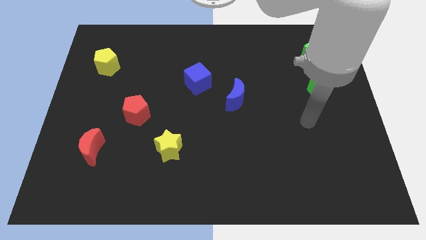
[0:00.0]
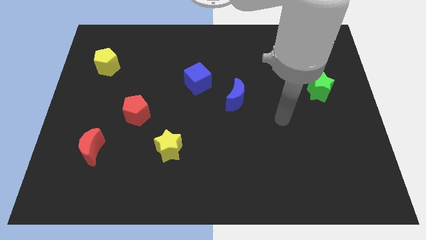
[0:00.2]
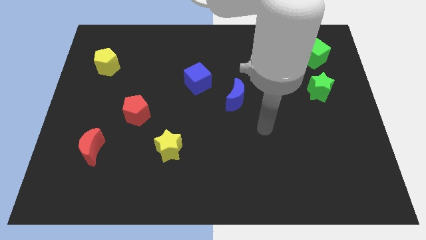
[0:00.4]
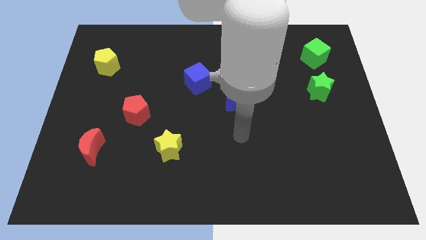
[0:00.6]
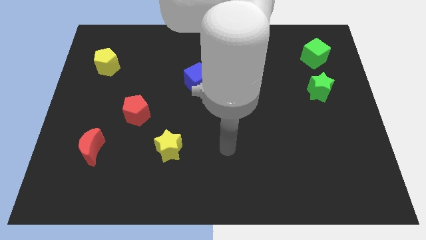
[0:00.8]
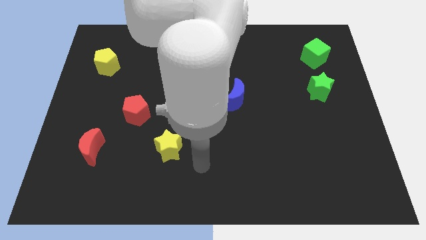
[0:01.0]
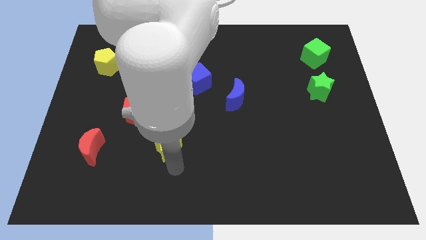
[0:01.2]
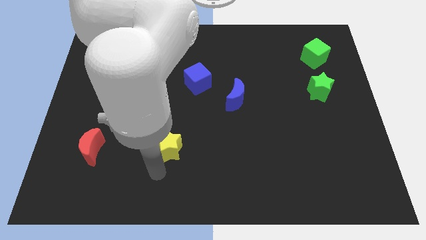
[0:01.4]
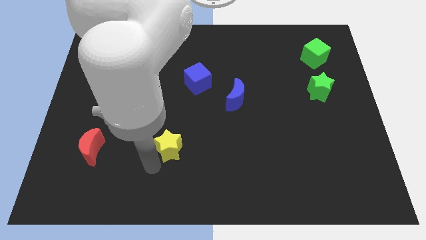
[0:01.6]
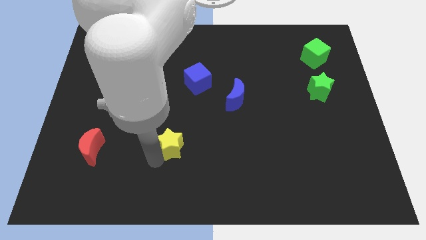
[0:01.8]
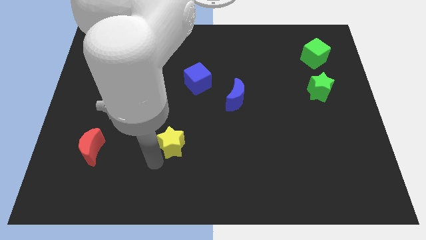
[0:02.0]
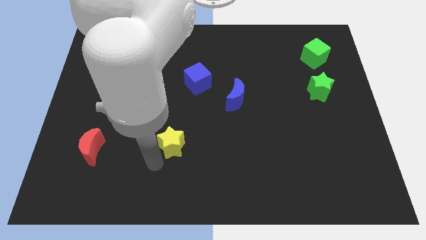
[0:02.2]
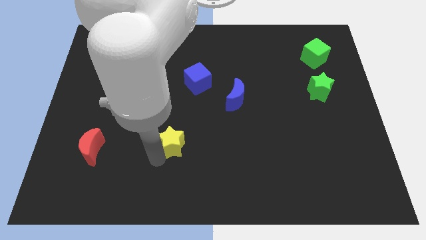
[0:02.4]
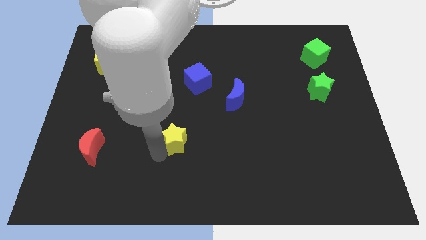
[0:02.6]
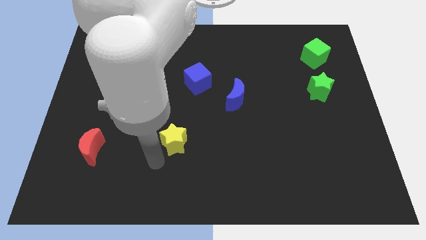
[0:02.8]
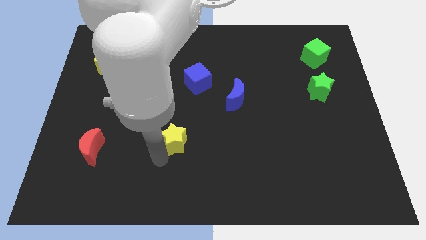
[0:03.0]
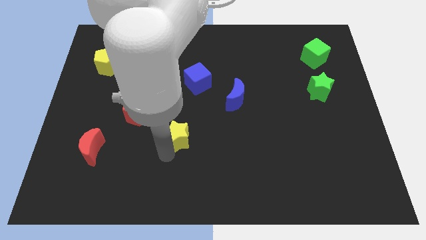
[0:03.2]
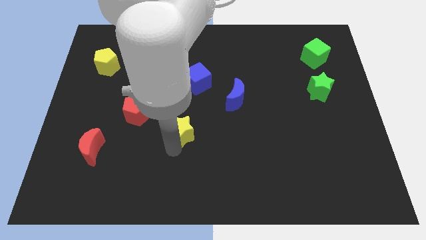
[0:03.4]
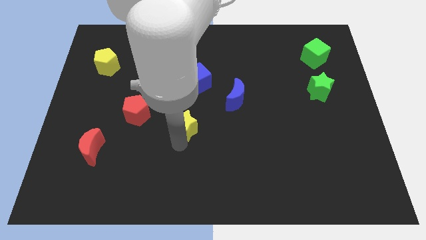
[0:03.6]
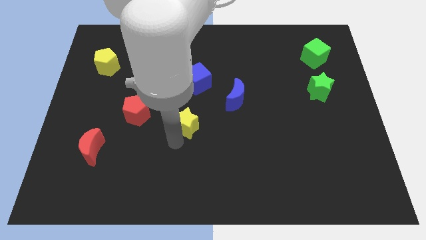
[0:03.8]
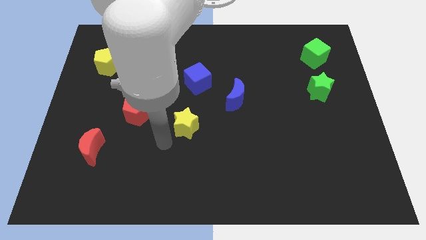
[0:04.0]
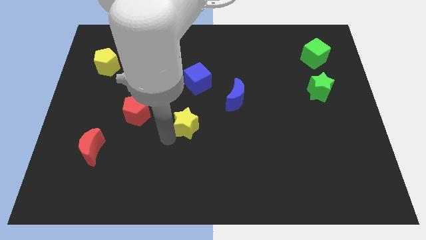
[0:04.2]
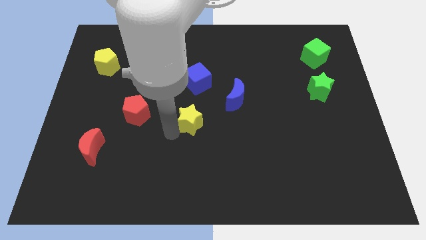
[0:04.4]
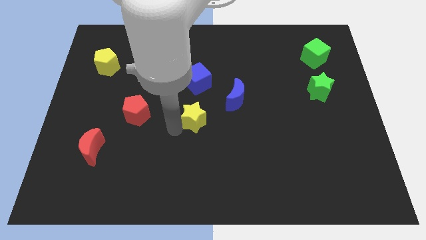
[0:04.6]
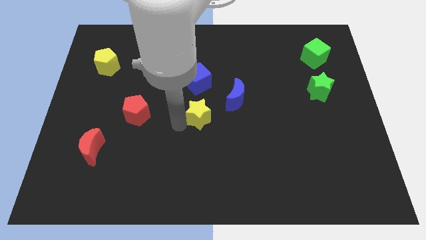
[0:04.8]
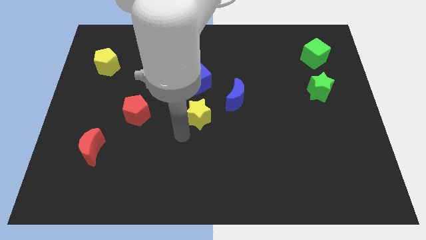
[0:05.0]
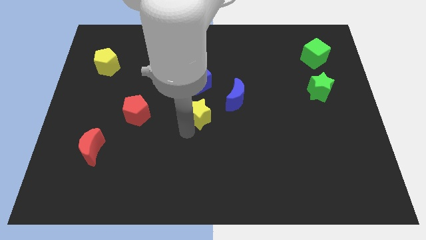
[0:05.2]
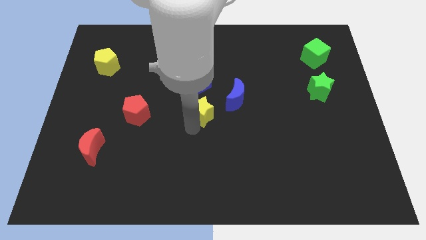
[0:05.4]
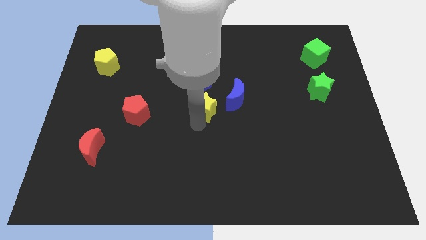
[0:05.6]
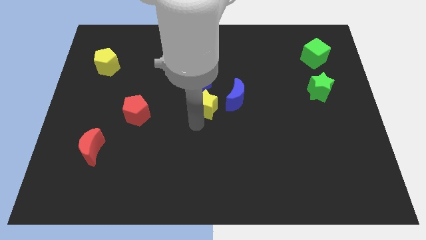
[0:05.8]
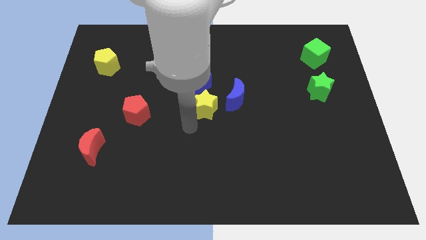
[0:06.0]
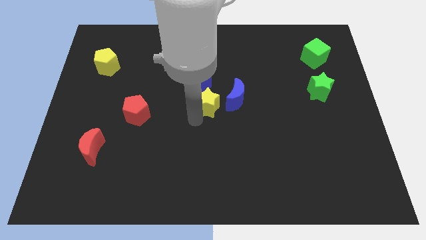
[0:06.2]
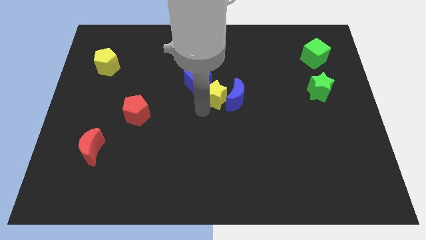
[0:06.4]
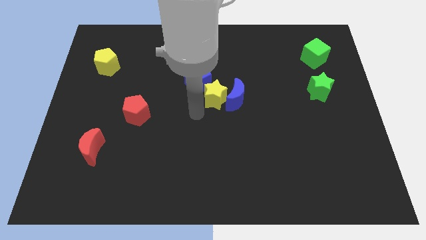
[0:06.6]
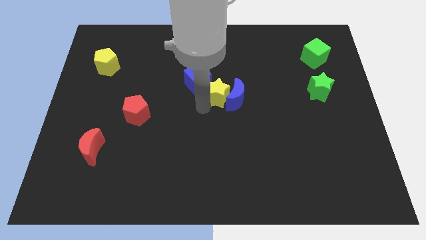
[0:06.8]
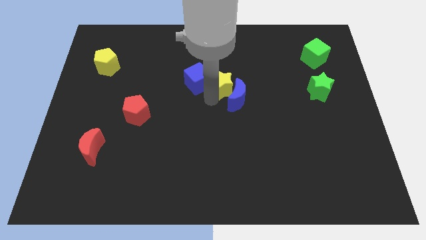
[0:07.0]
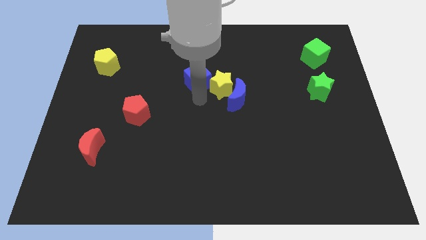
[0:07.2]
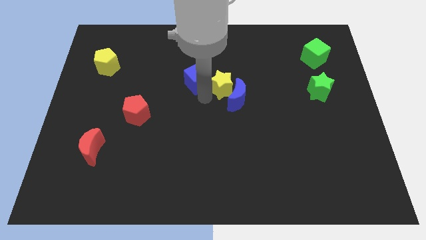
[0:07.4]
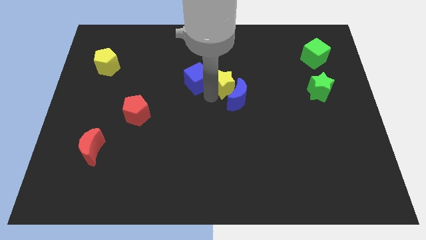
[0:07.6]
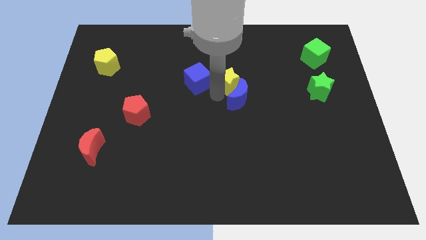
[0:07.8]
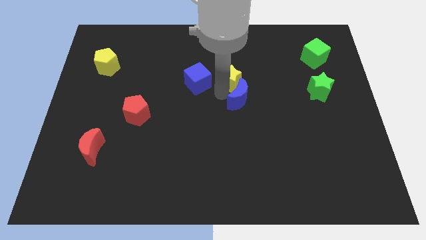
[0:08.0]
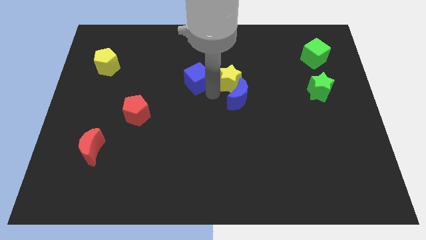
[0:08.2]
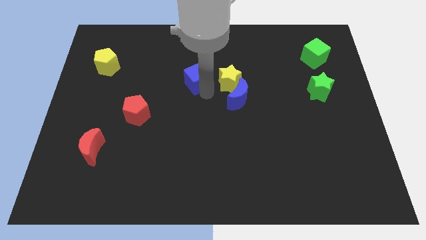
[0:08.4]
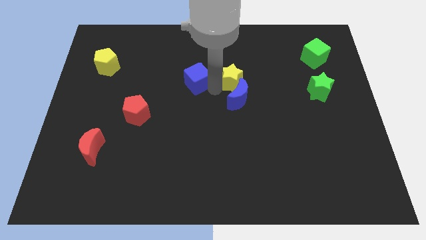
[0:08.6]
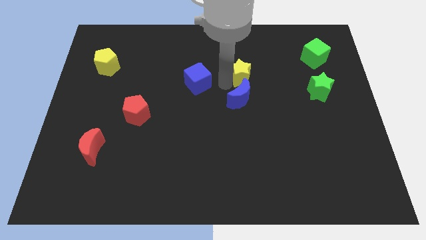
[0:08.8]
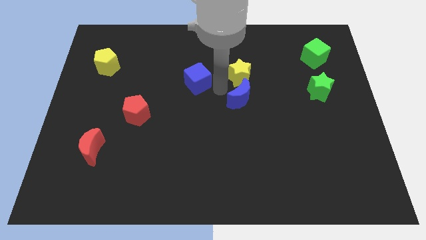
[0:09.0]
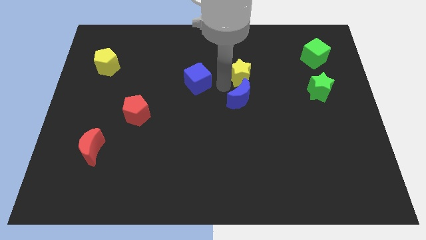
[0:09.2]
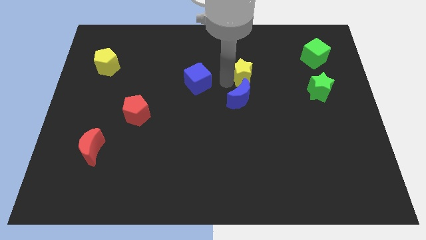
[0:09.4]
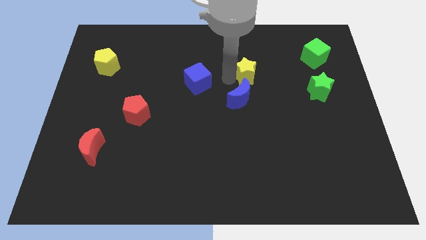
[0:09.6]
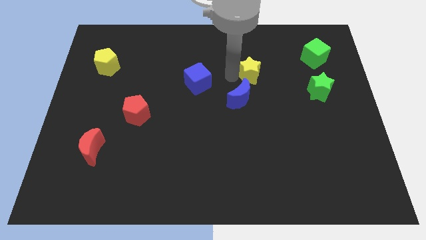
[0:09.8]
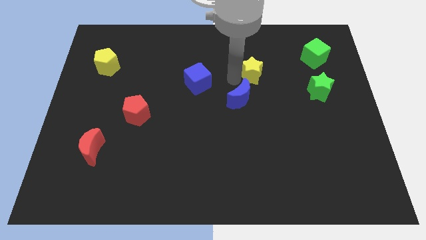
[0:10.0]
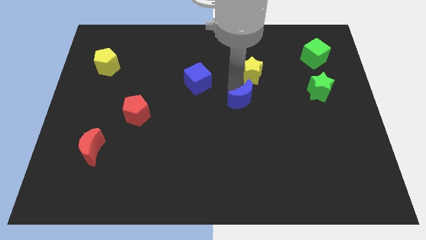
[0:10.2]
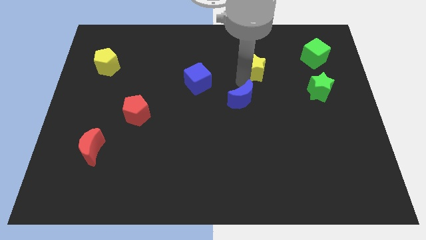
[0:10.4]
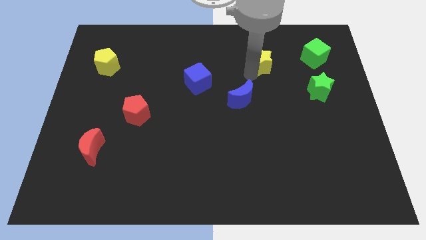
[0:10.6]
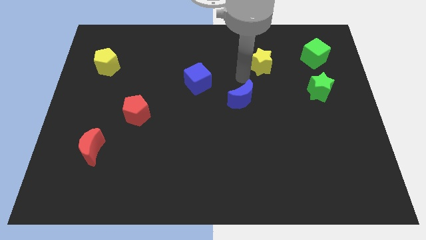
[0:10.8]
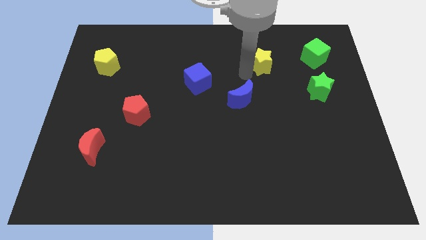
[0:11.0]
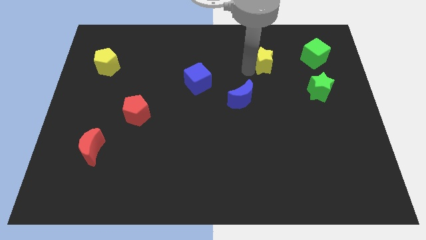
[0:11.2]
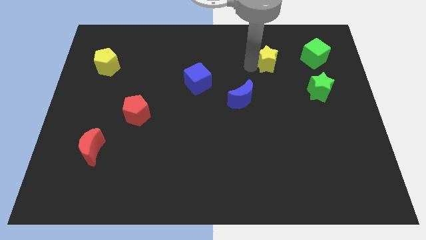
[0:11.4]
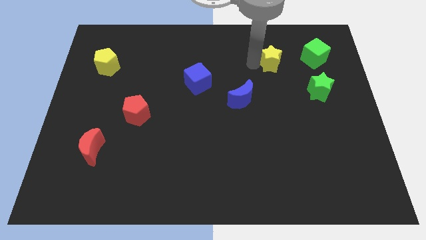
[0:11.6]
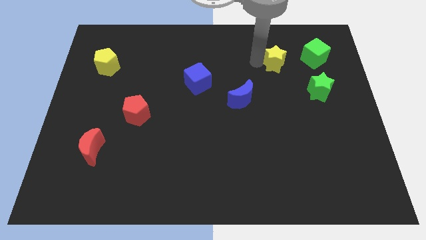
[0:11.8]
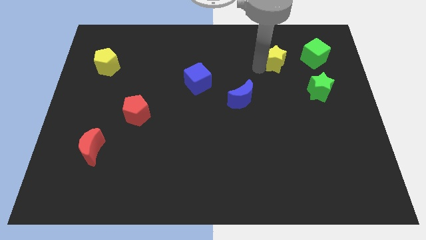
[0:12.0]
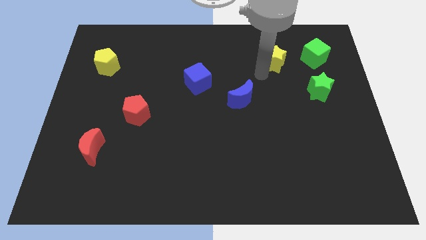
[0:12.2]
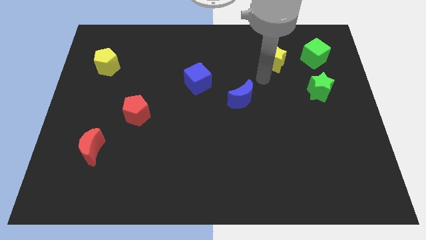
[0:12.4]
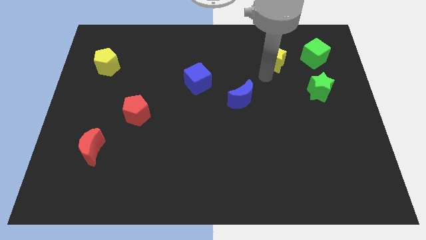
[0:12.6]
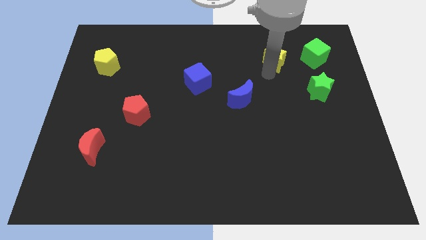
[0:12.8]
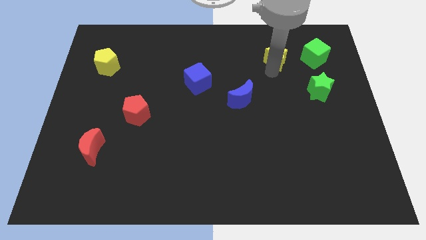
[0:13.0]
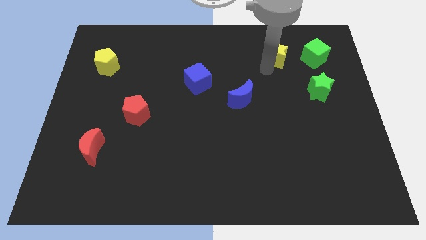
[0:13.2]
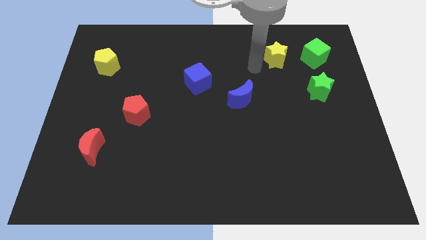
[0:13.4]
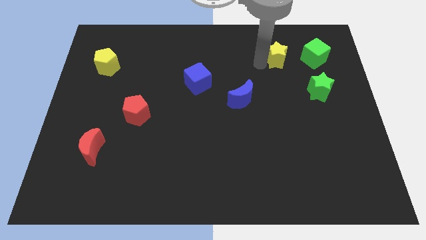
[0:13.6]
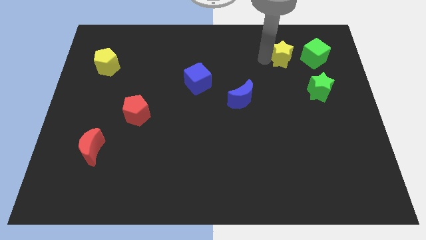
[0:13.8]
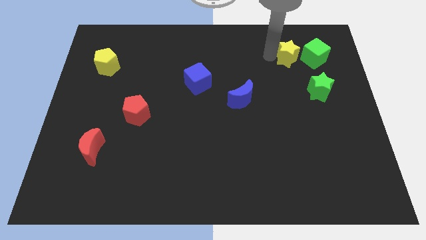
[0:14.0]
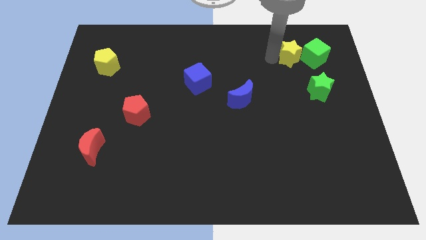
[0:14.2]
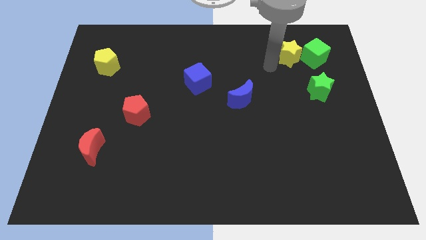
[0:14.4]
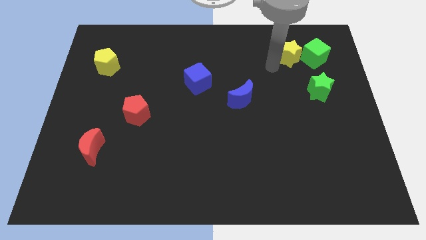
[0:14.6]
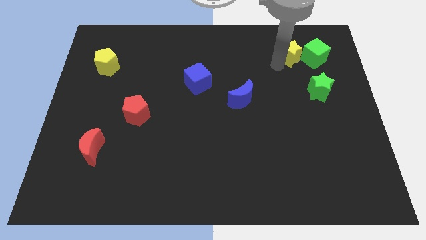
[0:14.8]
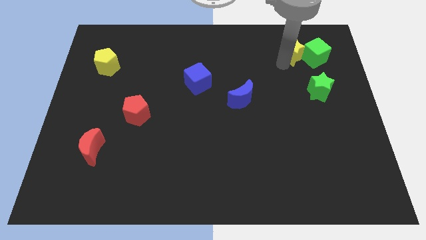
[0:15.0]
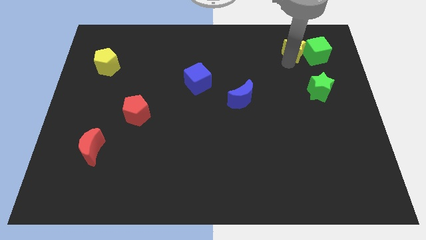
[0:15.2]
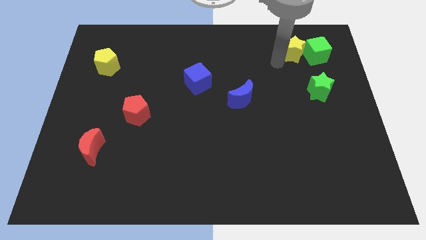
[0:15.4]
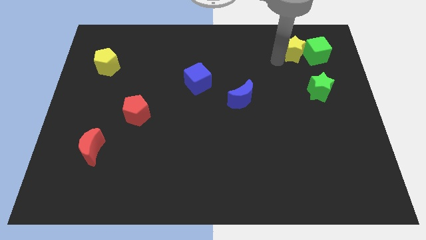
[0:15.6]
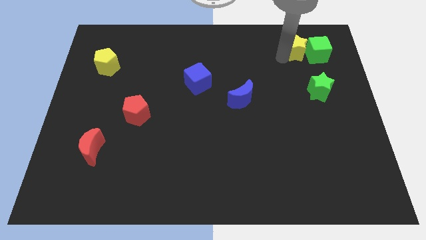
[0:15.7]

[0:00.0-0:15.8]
move the yellow star above the green star
